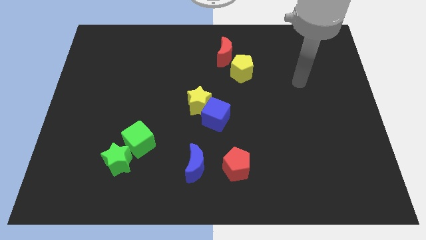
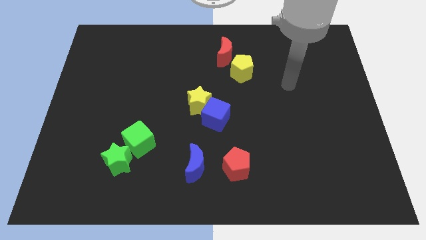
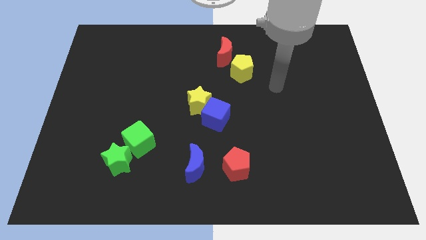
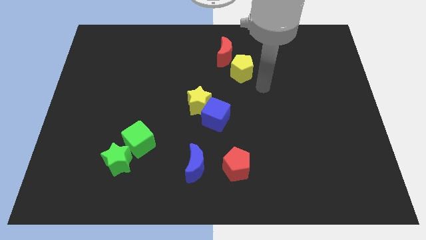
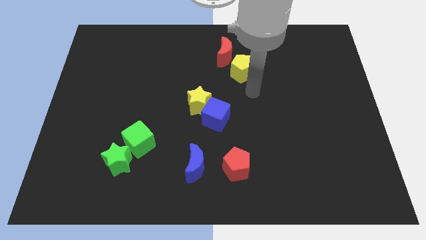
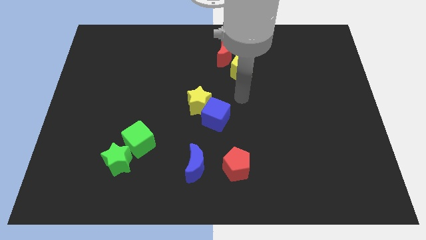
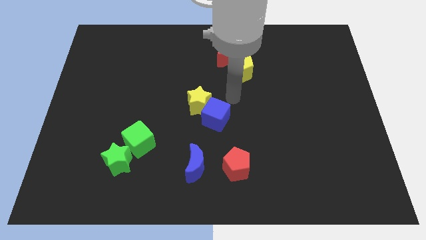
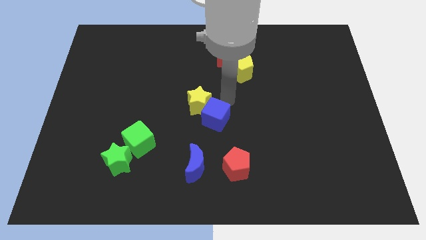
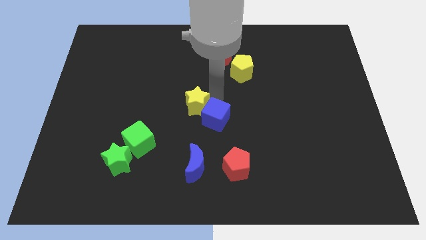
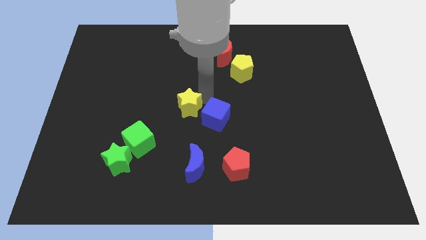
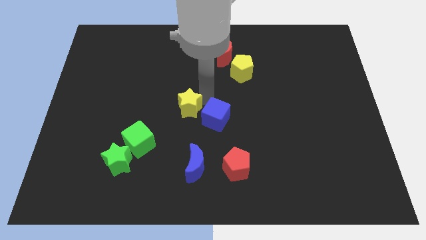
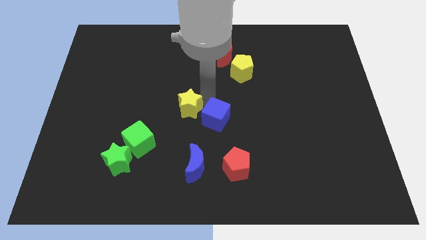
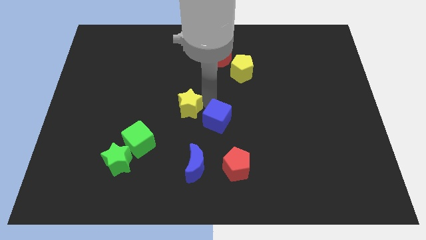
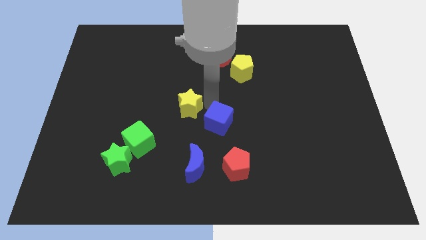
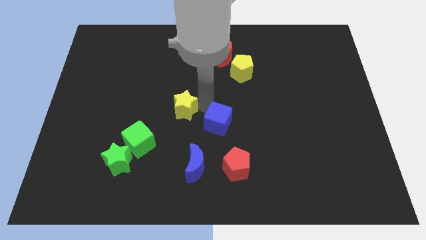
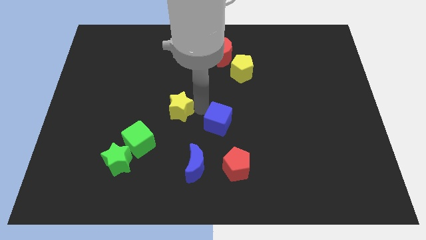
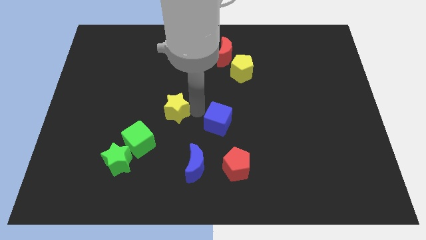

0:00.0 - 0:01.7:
move the blue cube away from the yellow star

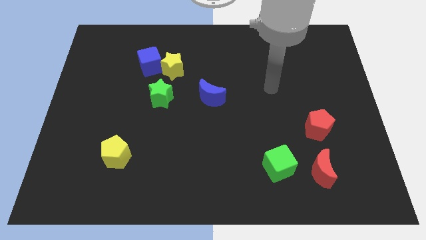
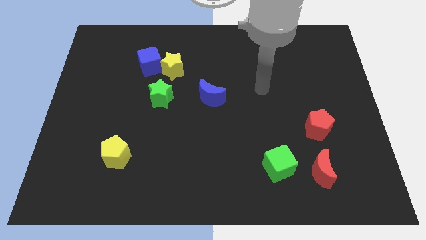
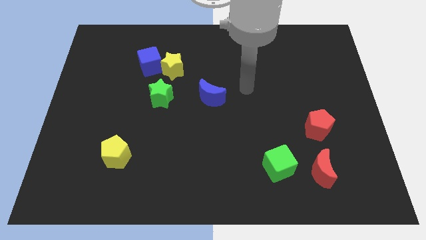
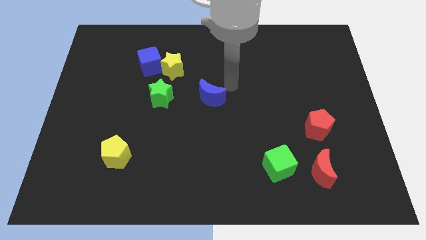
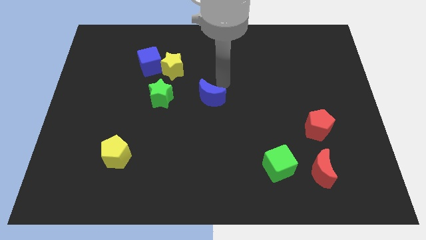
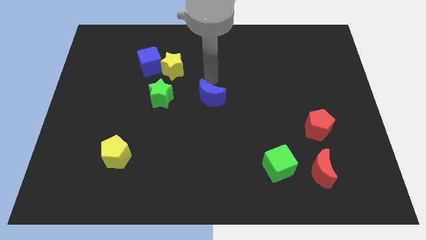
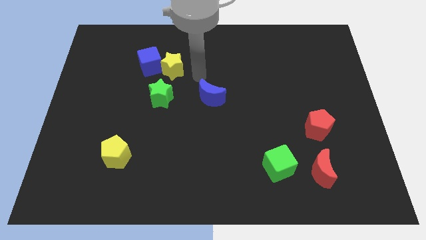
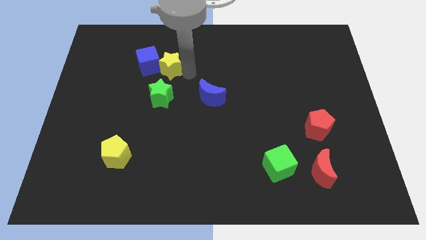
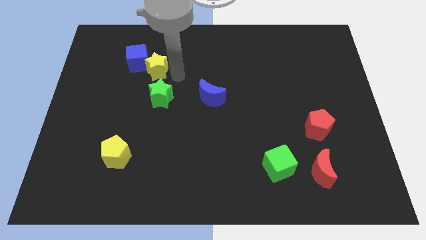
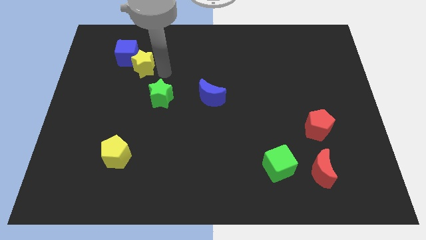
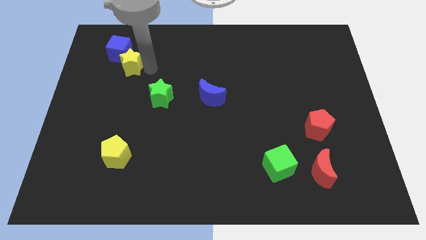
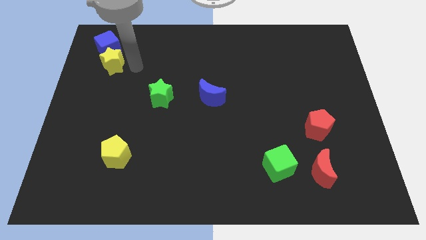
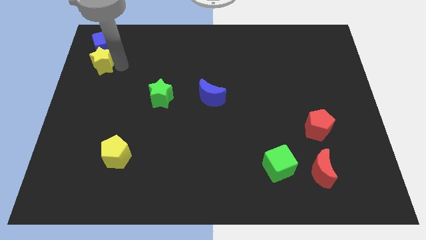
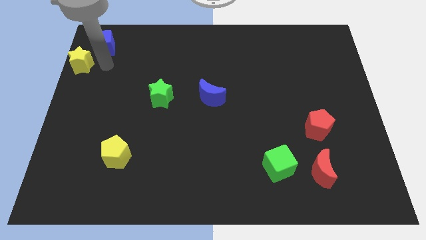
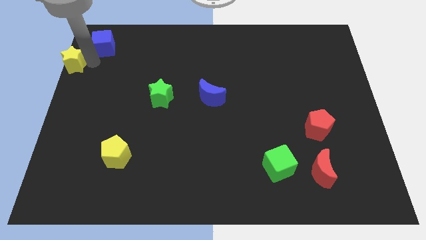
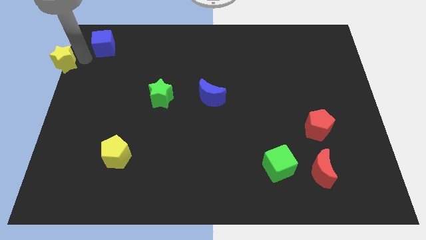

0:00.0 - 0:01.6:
pull the blue cube apart from the yellow star

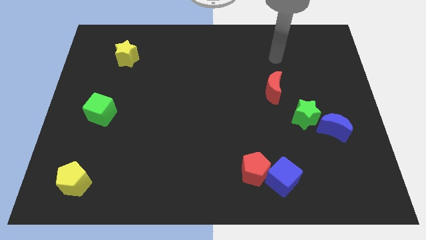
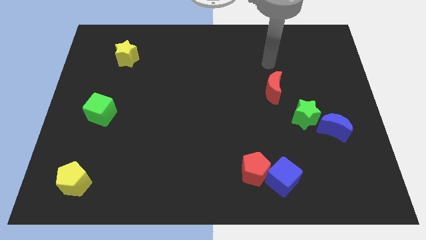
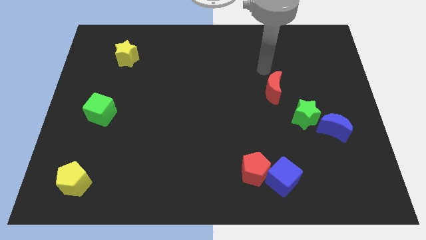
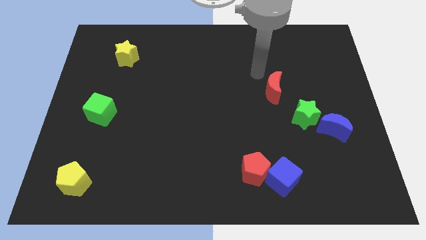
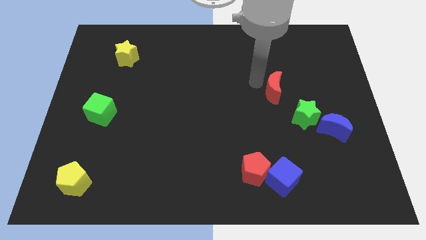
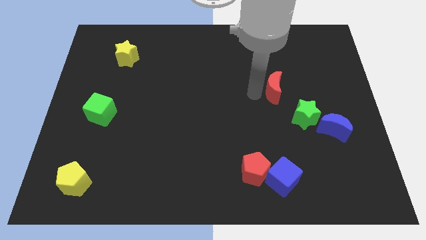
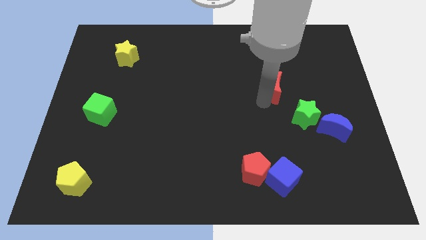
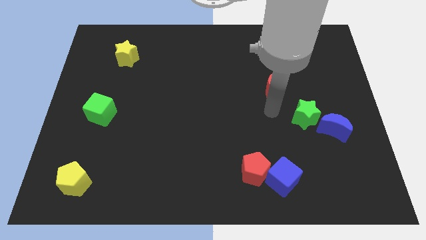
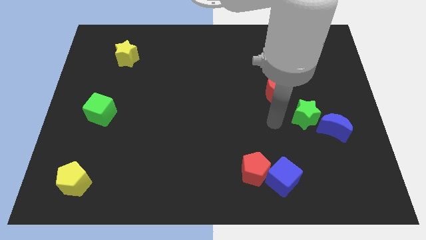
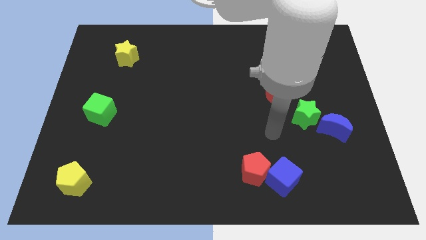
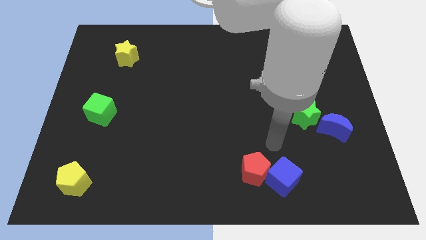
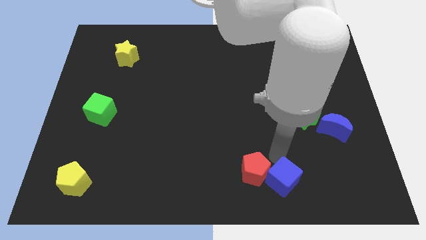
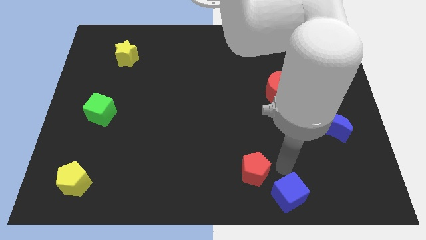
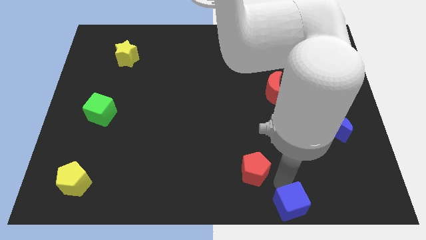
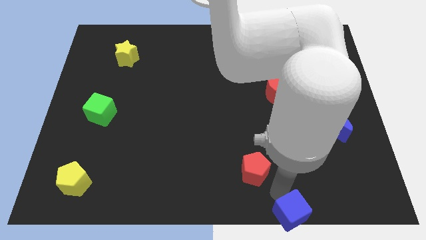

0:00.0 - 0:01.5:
separate the red pentagon from the blue cube

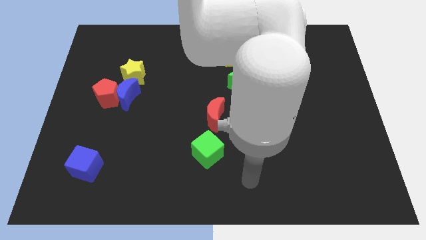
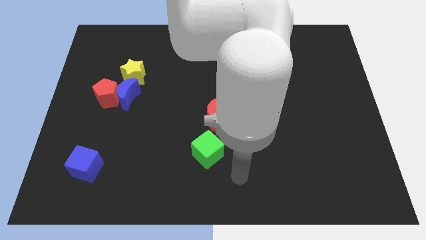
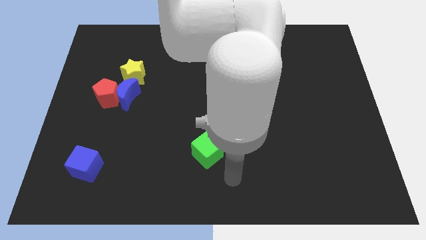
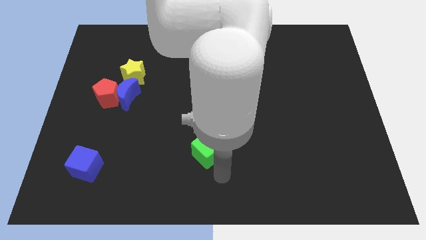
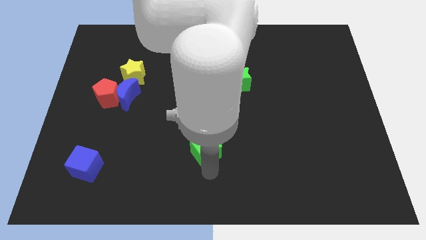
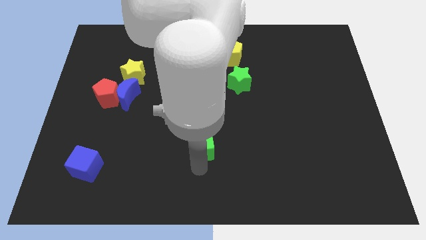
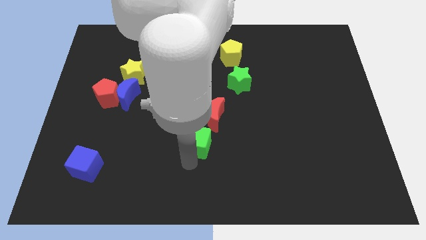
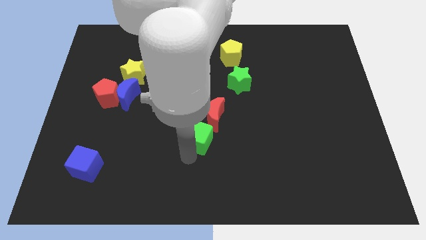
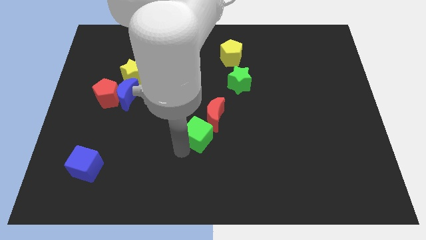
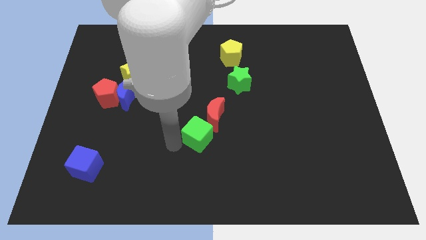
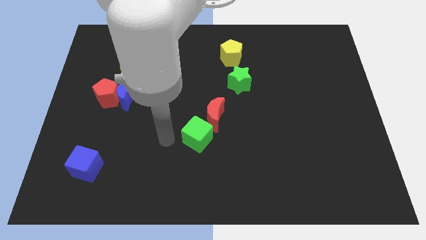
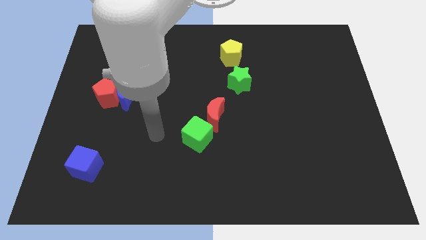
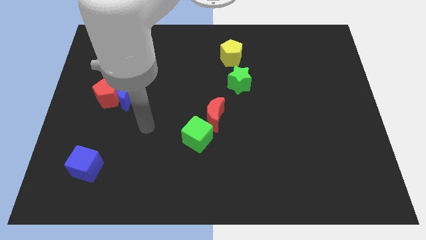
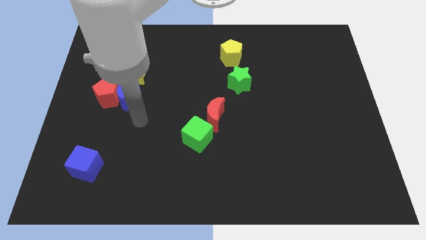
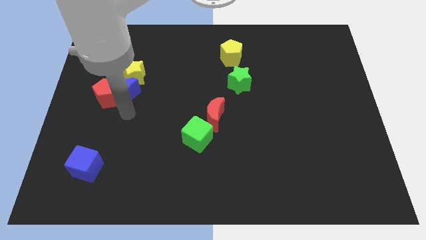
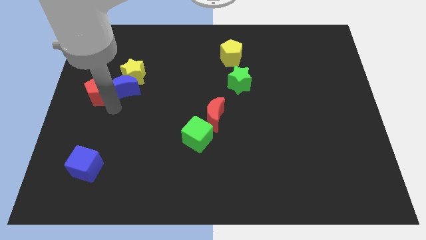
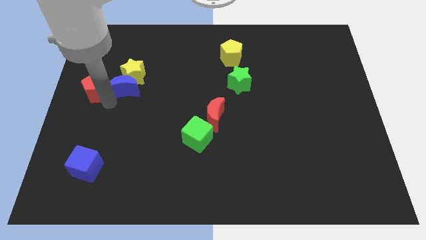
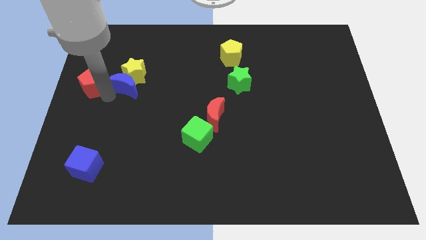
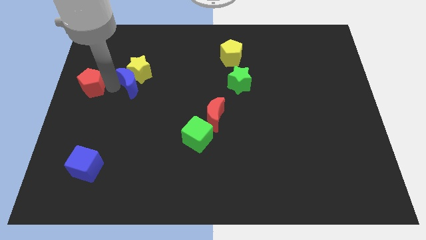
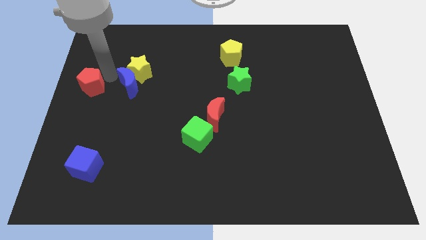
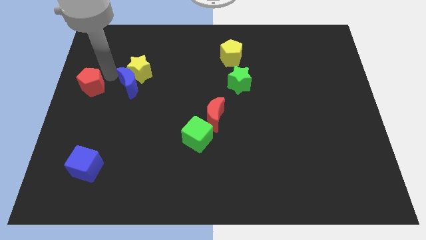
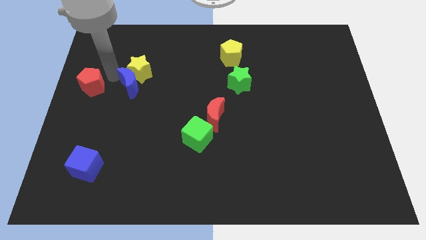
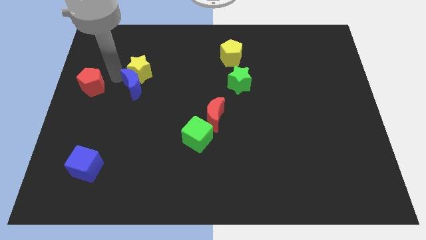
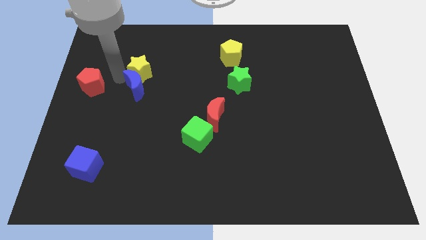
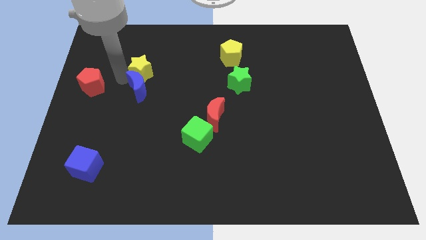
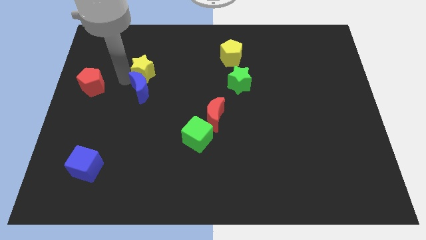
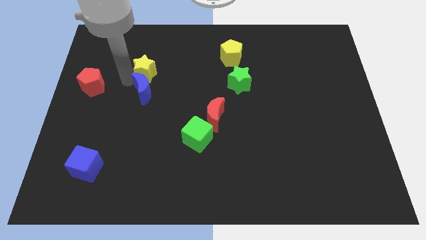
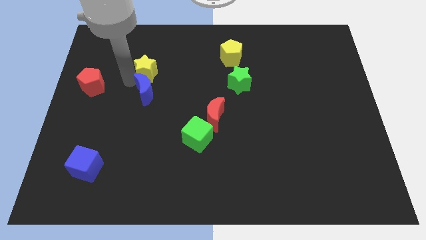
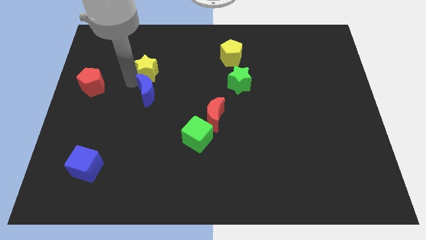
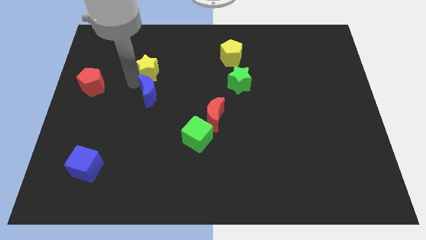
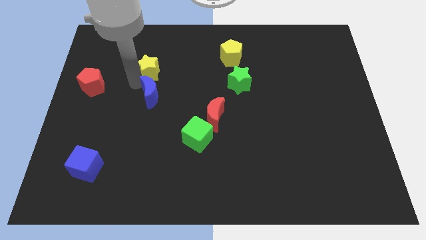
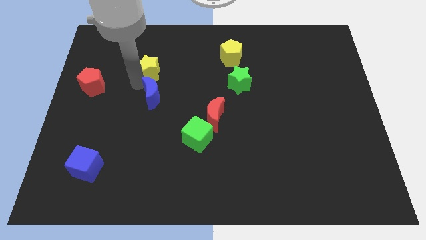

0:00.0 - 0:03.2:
move the blue moon away from the red pentagon and yellow star

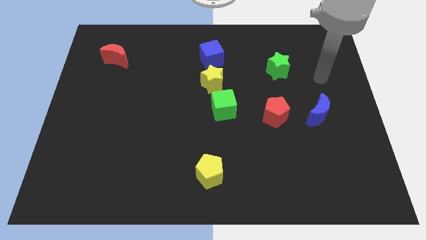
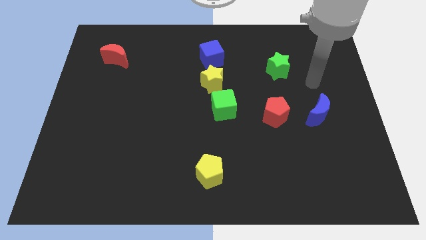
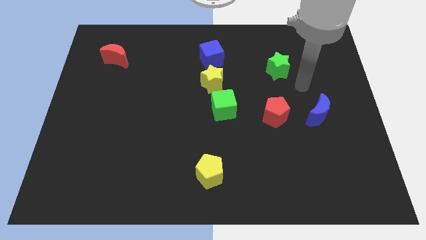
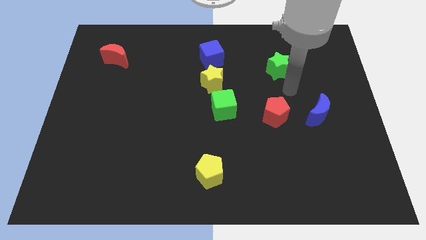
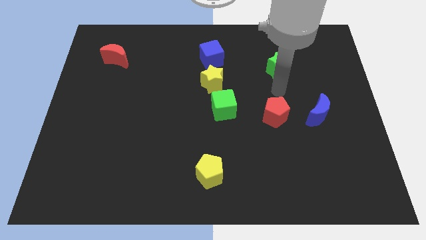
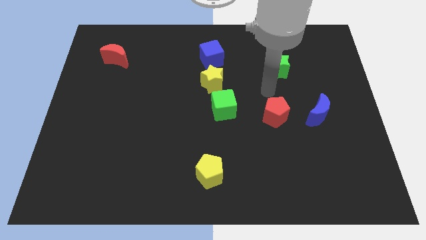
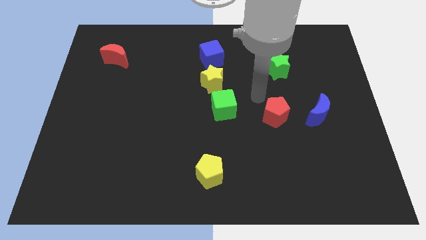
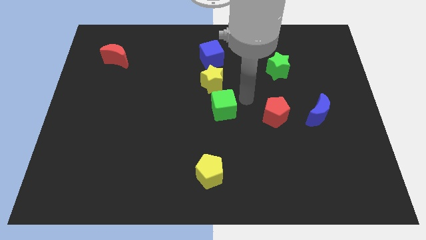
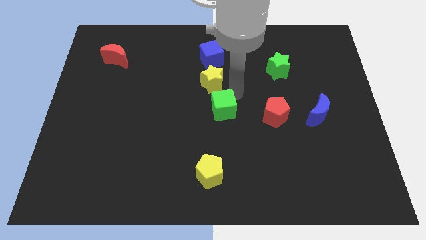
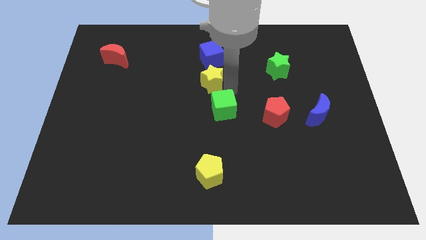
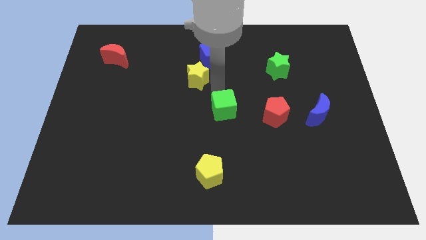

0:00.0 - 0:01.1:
move the green cube away from the yellow star
